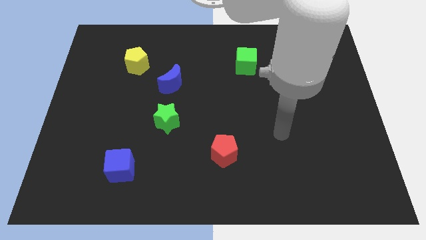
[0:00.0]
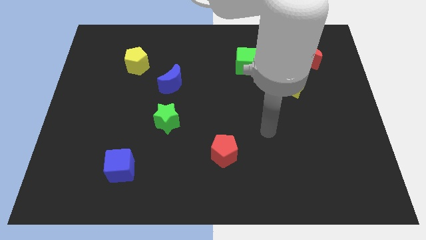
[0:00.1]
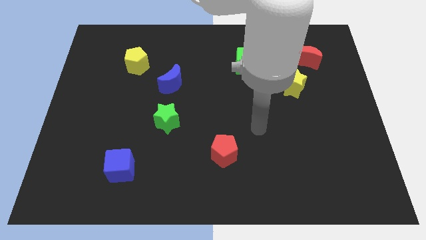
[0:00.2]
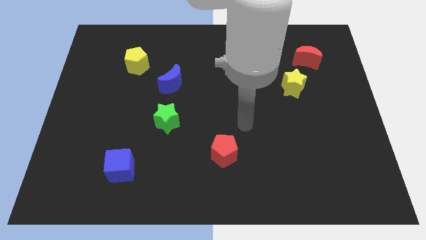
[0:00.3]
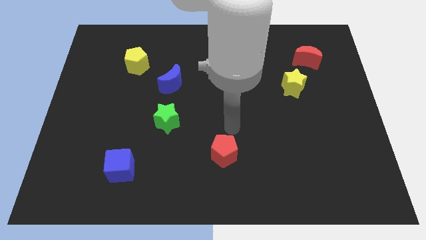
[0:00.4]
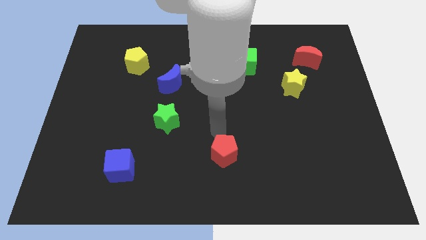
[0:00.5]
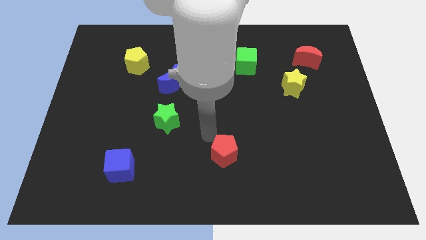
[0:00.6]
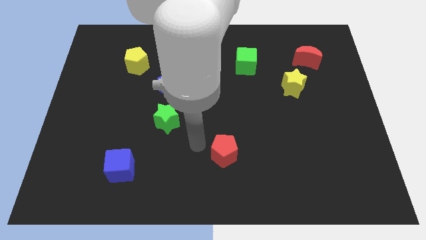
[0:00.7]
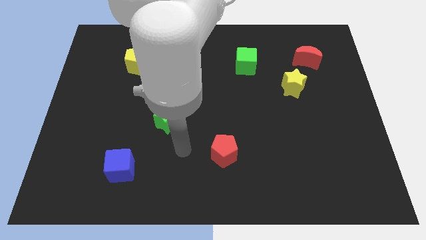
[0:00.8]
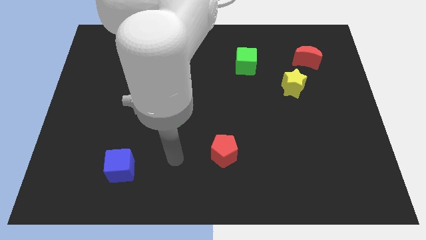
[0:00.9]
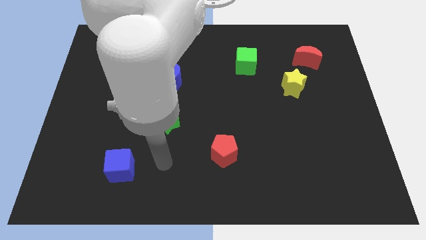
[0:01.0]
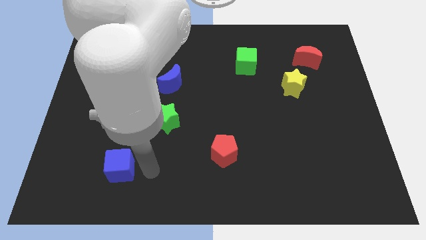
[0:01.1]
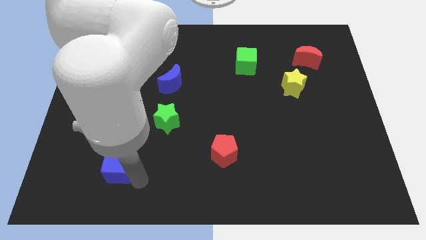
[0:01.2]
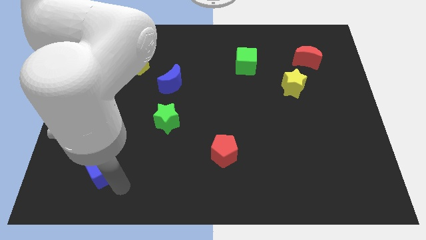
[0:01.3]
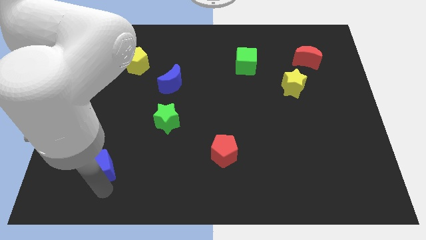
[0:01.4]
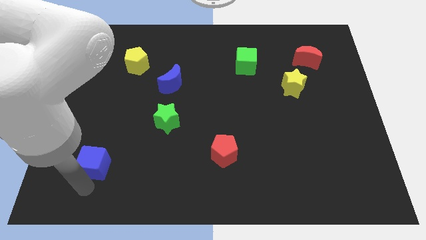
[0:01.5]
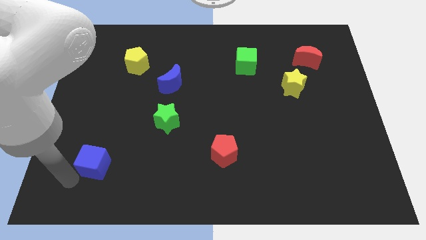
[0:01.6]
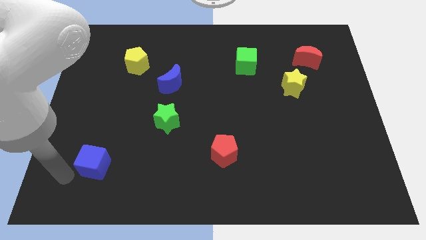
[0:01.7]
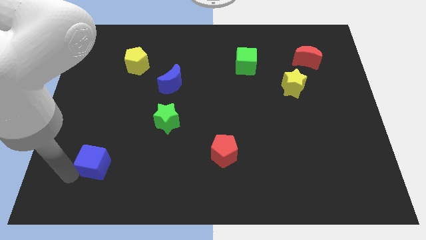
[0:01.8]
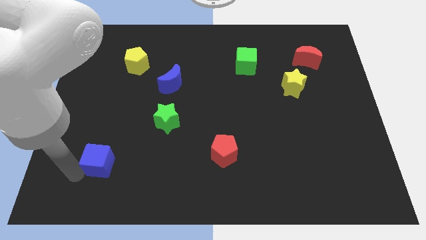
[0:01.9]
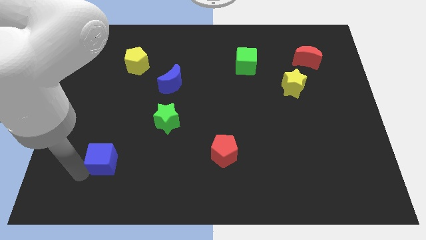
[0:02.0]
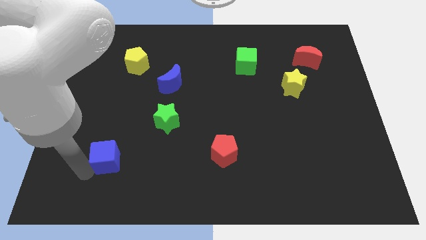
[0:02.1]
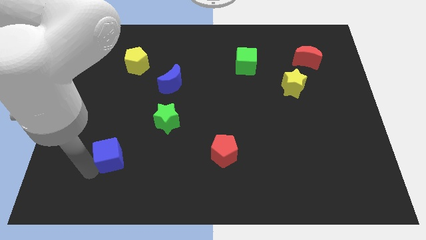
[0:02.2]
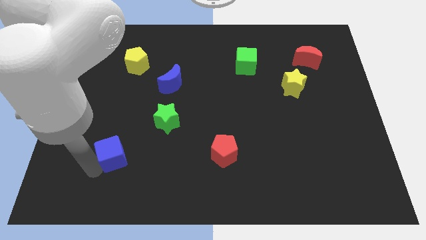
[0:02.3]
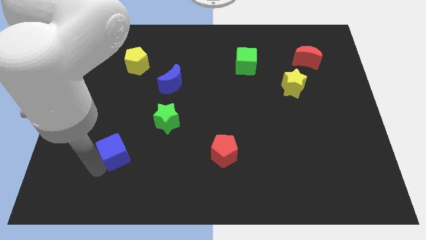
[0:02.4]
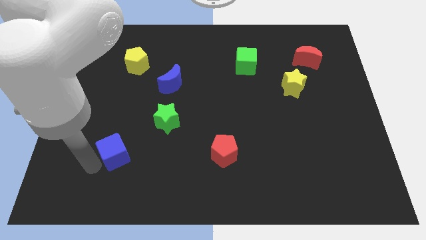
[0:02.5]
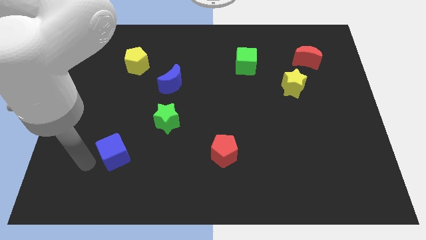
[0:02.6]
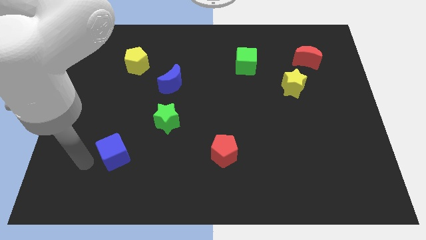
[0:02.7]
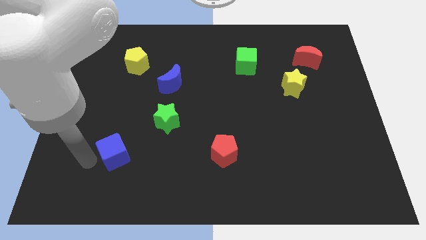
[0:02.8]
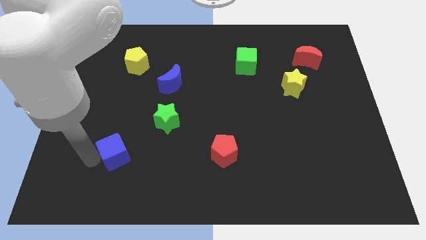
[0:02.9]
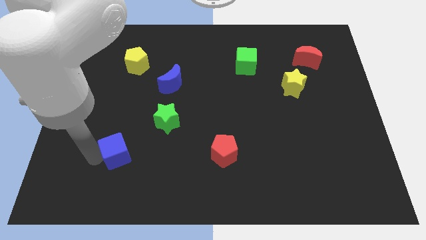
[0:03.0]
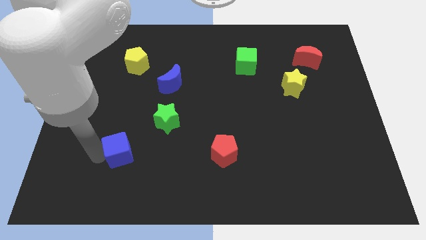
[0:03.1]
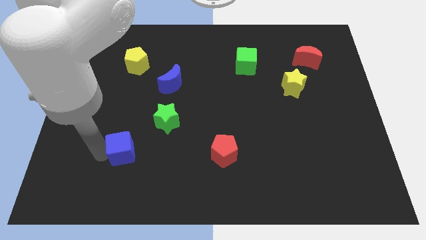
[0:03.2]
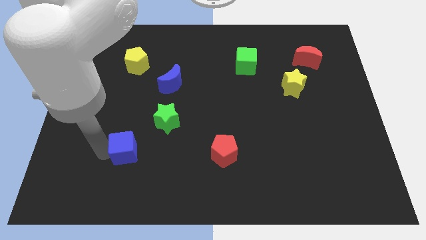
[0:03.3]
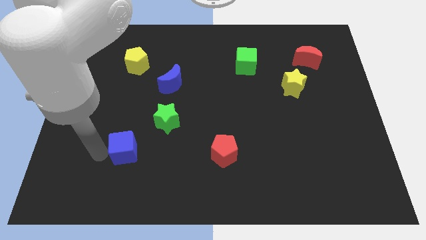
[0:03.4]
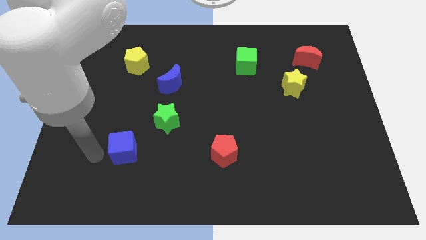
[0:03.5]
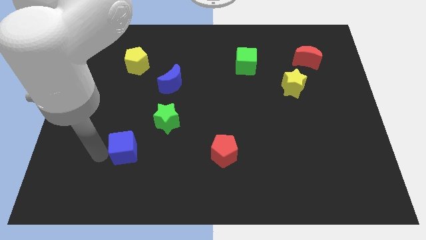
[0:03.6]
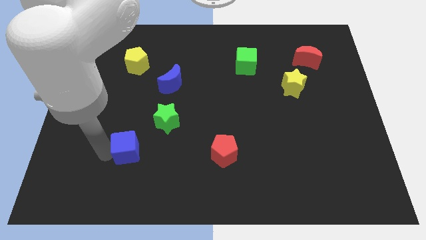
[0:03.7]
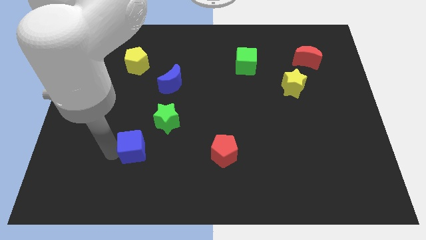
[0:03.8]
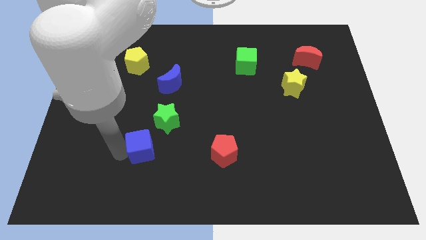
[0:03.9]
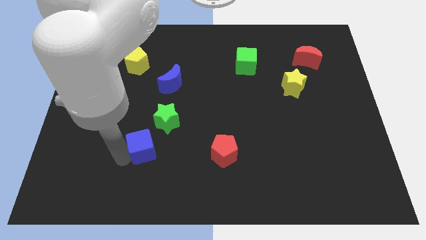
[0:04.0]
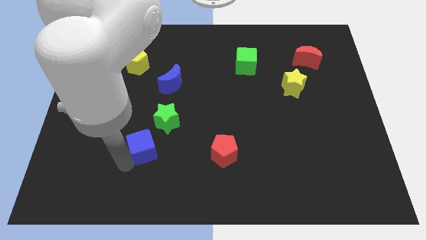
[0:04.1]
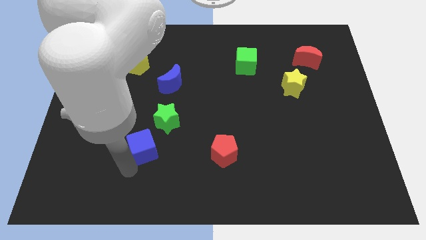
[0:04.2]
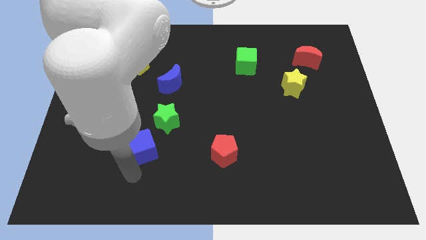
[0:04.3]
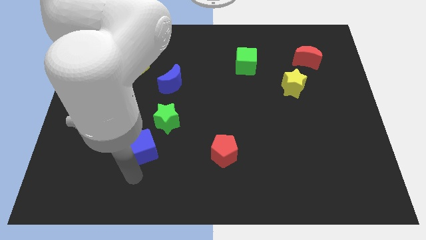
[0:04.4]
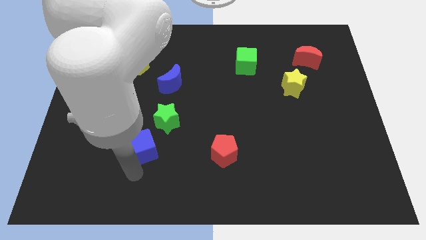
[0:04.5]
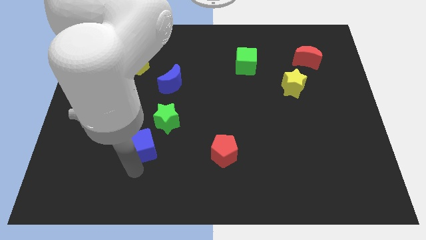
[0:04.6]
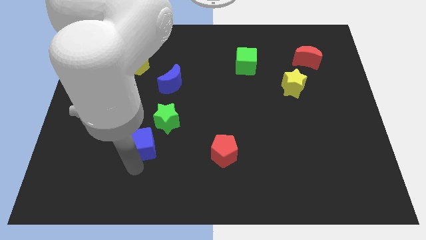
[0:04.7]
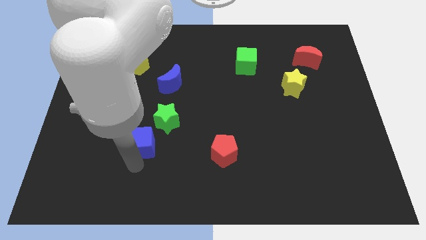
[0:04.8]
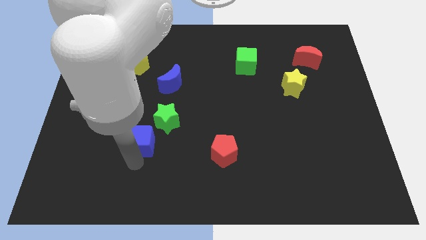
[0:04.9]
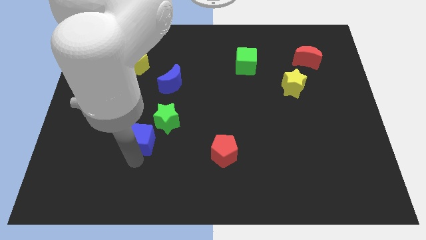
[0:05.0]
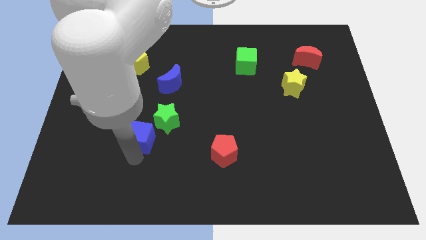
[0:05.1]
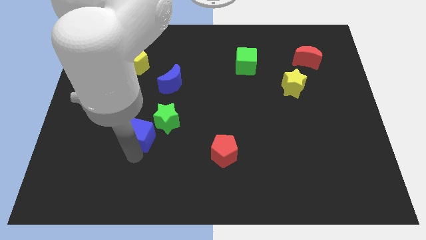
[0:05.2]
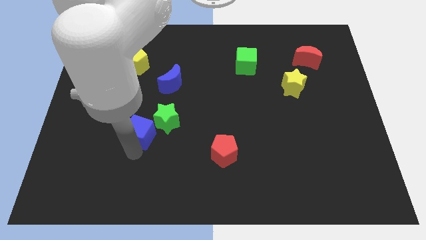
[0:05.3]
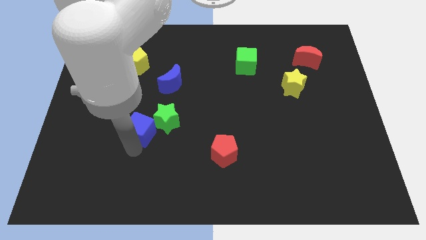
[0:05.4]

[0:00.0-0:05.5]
put the blue cube next to the green star

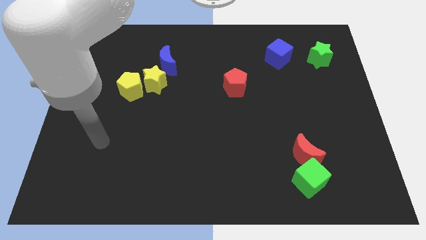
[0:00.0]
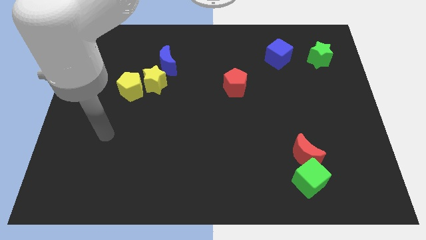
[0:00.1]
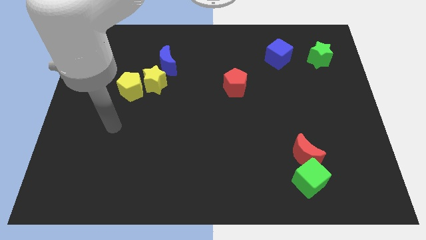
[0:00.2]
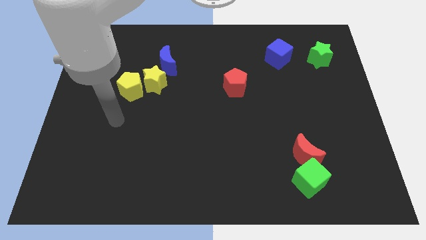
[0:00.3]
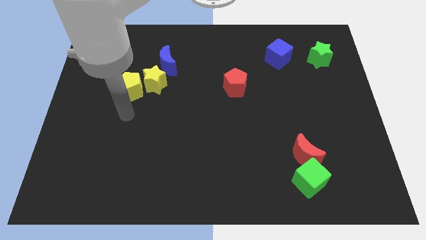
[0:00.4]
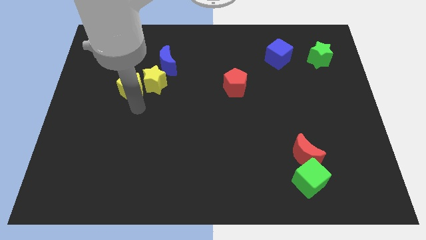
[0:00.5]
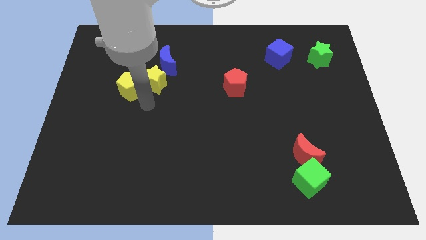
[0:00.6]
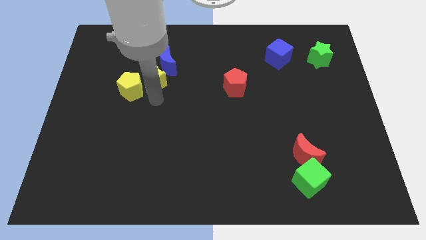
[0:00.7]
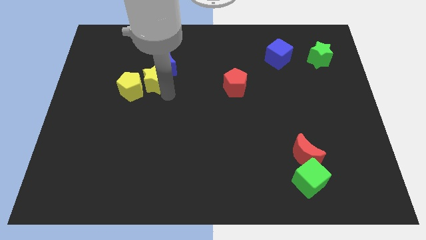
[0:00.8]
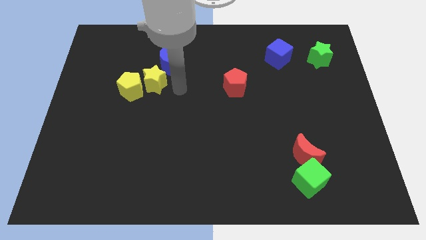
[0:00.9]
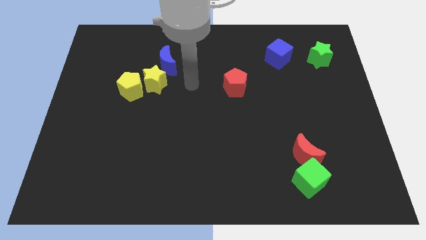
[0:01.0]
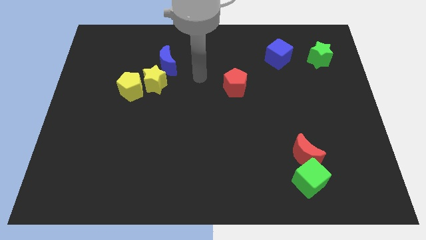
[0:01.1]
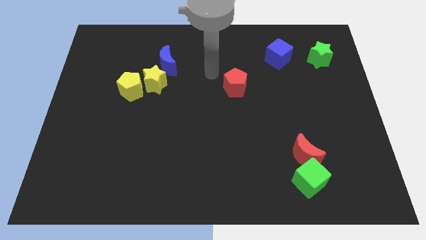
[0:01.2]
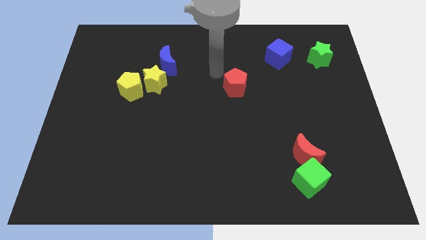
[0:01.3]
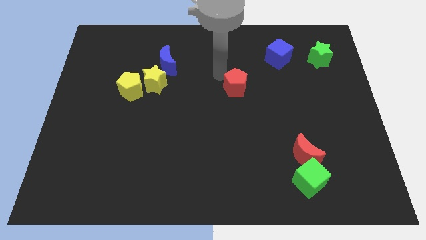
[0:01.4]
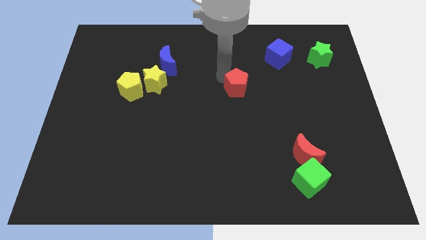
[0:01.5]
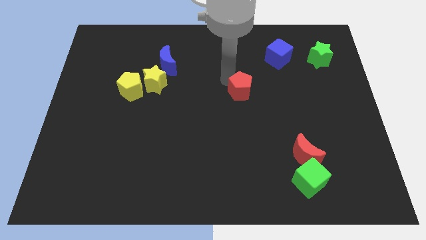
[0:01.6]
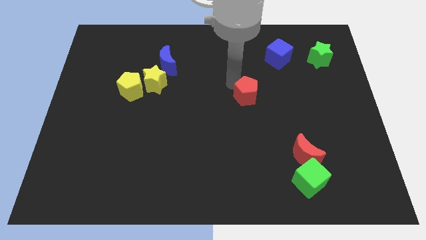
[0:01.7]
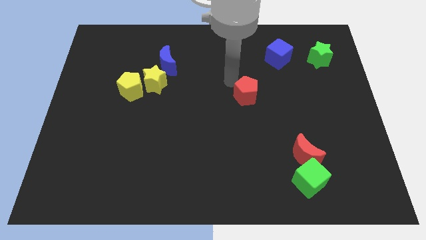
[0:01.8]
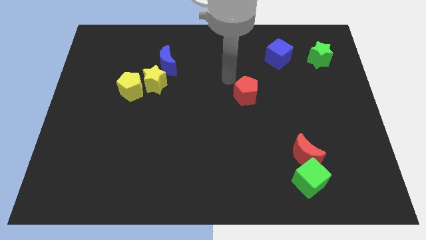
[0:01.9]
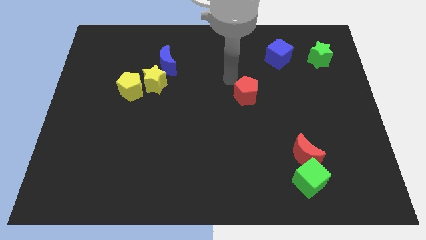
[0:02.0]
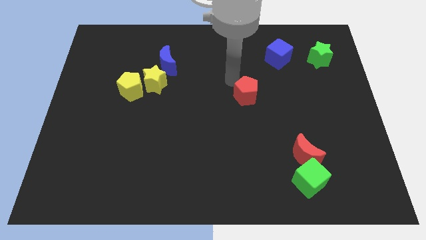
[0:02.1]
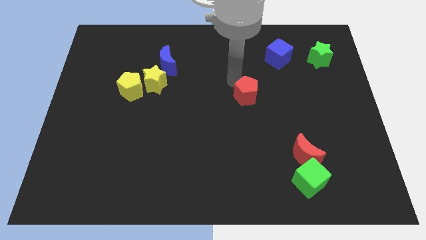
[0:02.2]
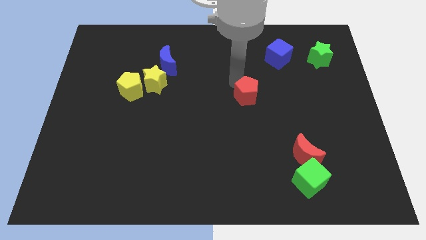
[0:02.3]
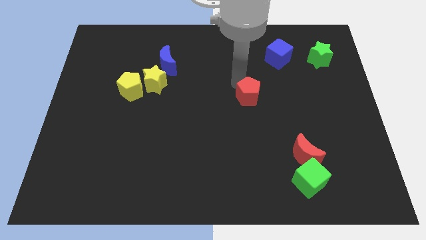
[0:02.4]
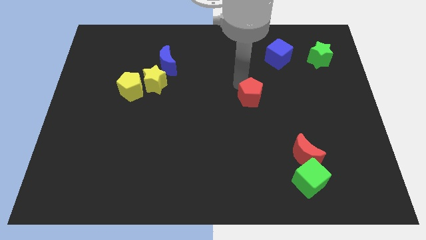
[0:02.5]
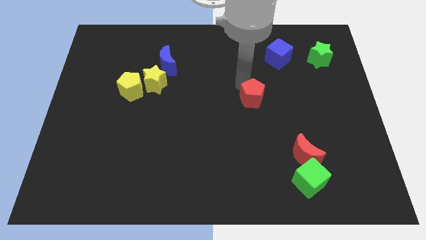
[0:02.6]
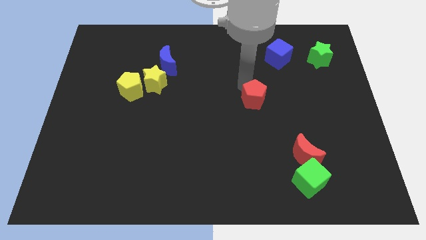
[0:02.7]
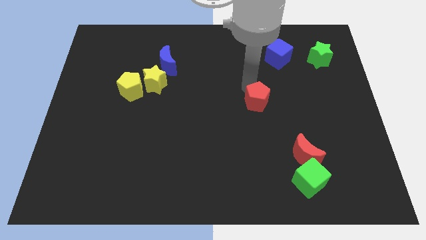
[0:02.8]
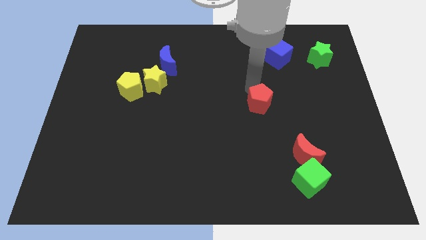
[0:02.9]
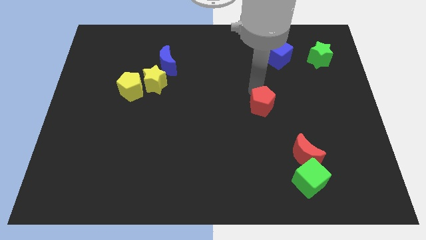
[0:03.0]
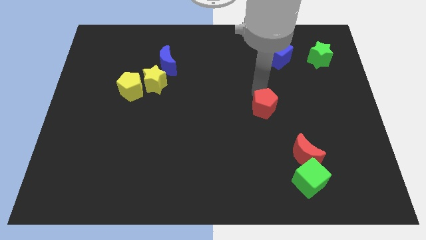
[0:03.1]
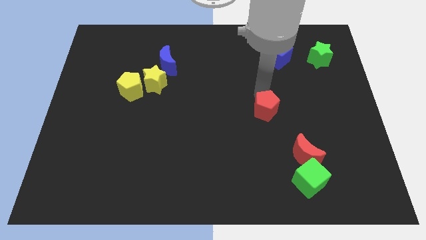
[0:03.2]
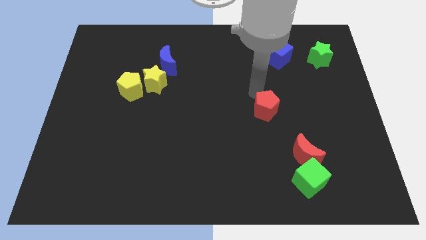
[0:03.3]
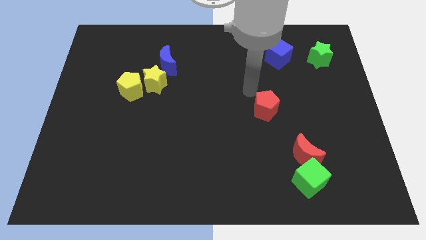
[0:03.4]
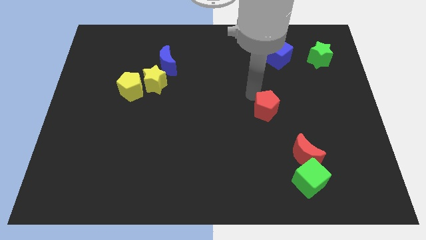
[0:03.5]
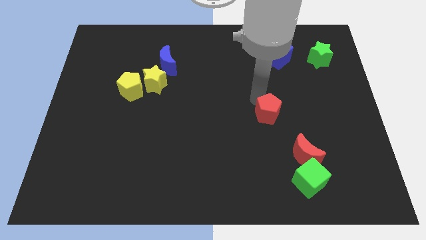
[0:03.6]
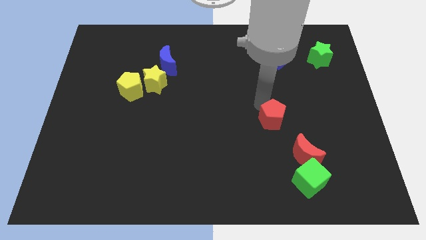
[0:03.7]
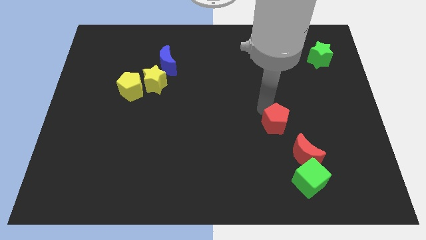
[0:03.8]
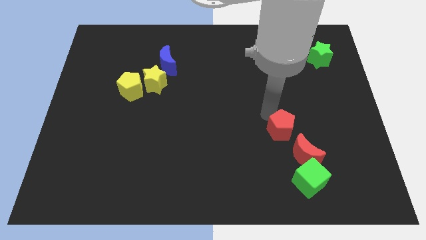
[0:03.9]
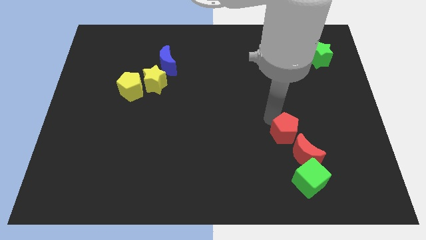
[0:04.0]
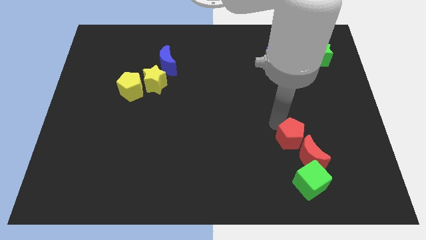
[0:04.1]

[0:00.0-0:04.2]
move the red pentagon next to the red moon
